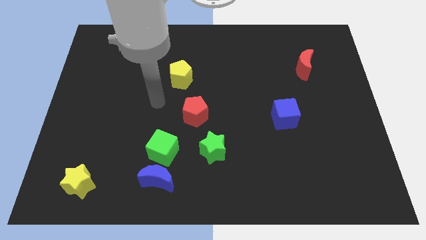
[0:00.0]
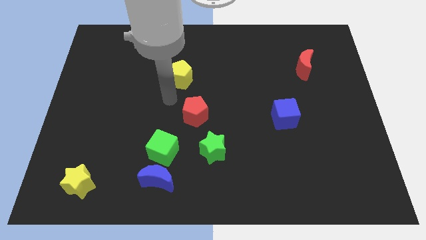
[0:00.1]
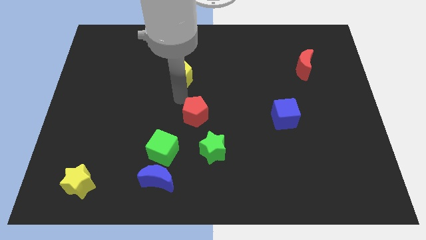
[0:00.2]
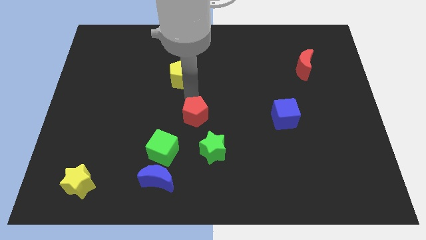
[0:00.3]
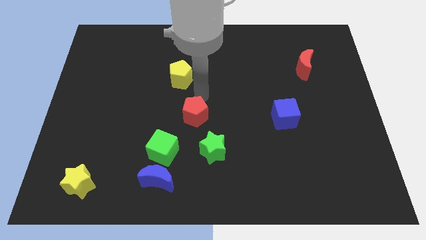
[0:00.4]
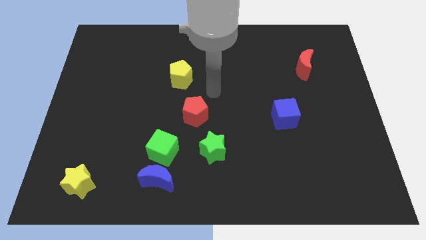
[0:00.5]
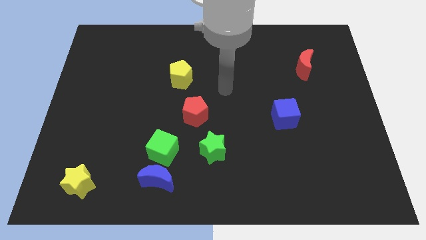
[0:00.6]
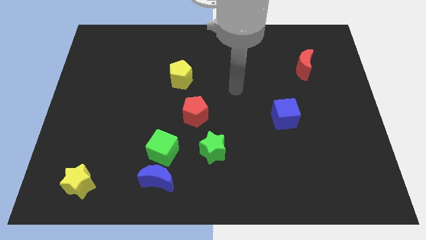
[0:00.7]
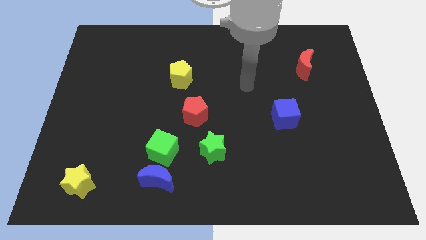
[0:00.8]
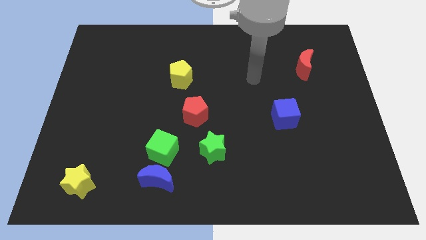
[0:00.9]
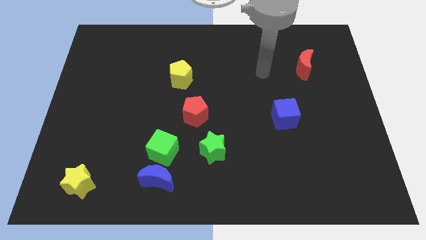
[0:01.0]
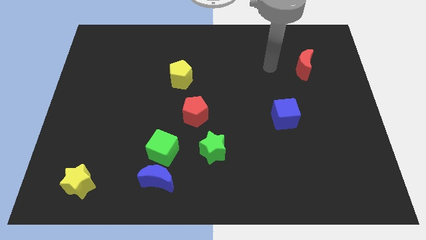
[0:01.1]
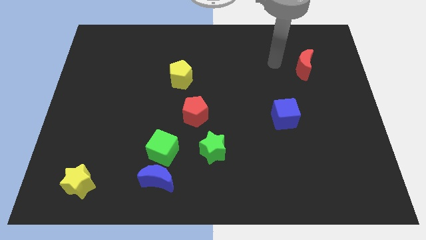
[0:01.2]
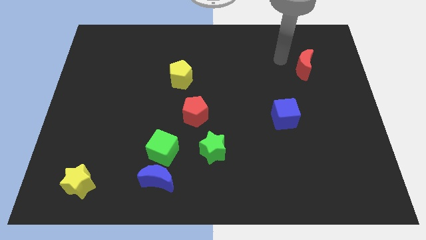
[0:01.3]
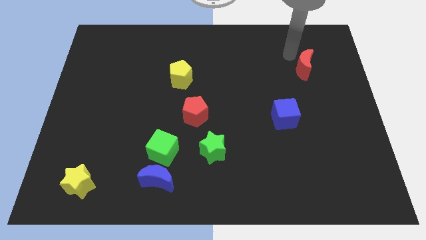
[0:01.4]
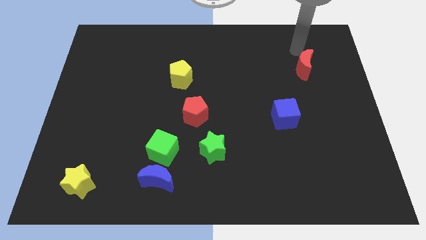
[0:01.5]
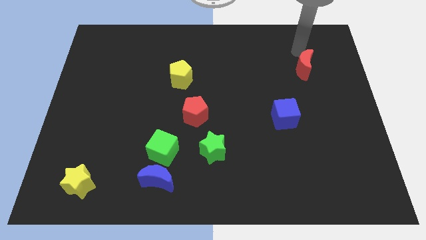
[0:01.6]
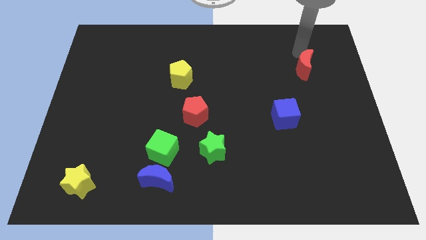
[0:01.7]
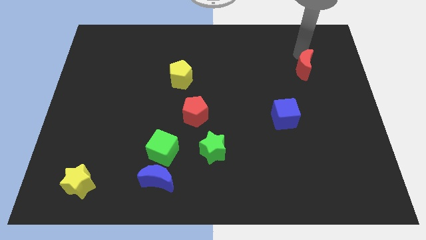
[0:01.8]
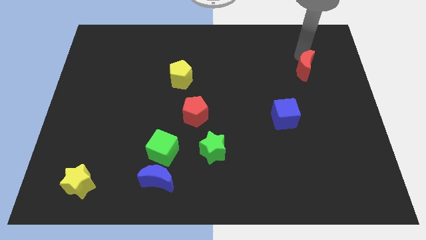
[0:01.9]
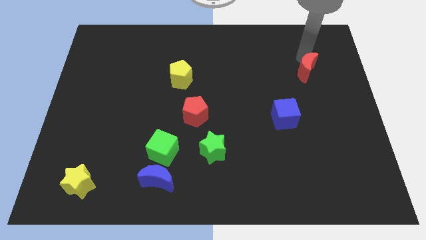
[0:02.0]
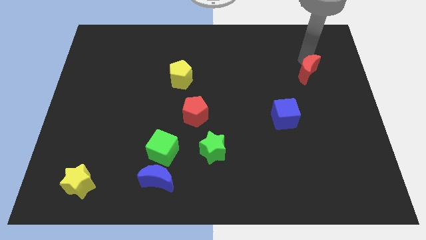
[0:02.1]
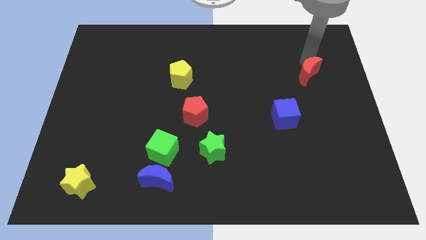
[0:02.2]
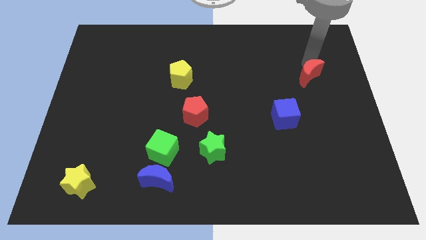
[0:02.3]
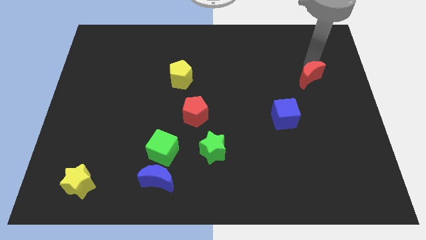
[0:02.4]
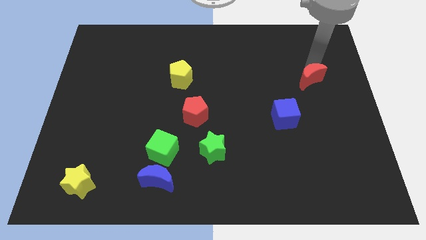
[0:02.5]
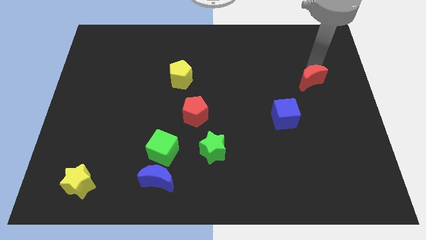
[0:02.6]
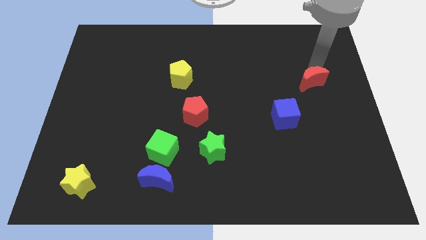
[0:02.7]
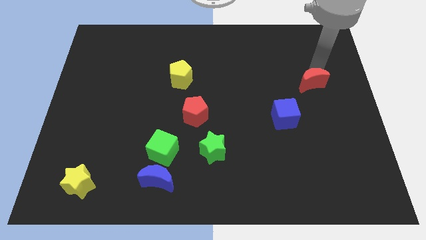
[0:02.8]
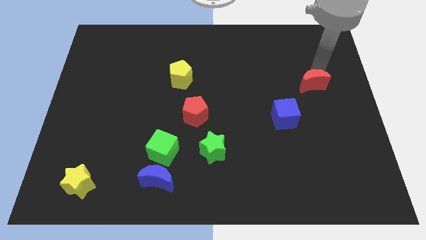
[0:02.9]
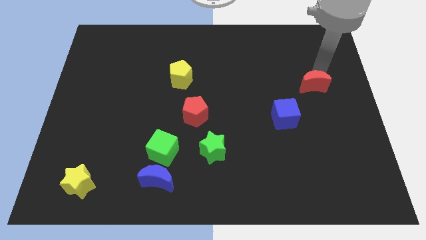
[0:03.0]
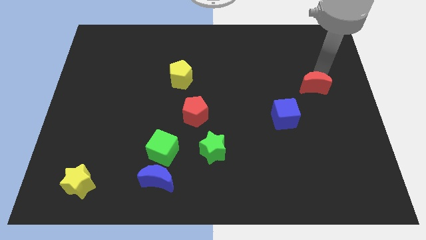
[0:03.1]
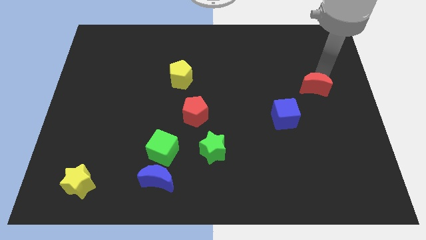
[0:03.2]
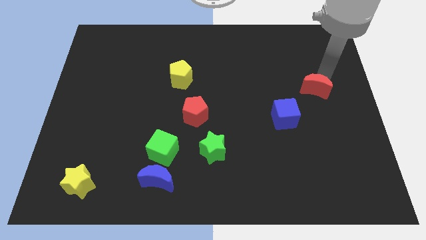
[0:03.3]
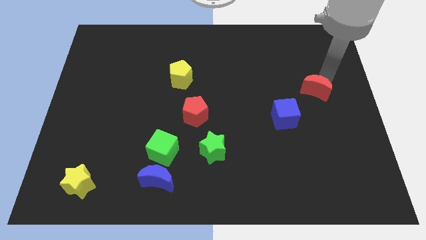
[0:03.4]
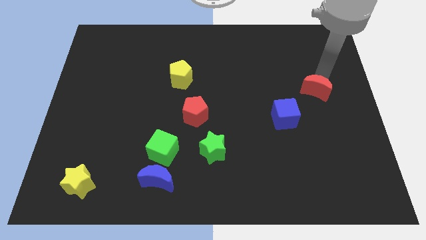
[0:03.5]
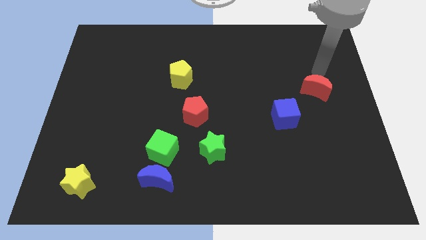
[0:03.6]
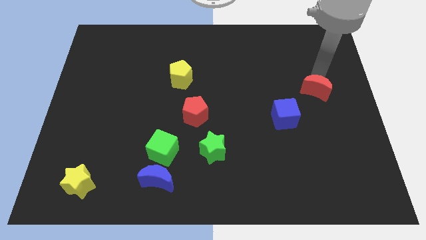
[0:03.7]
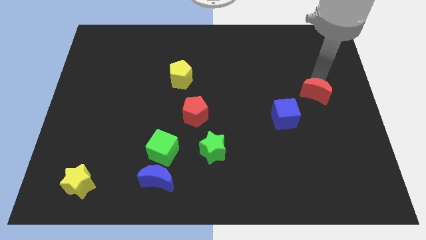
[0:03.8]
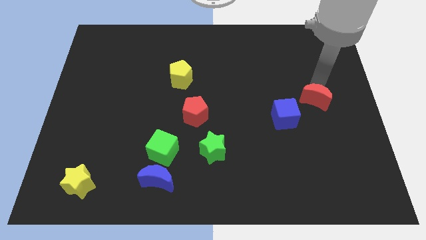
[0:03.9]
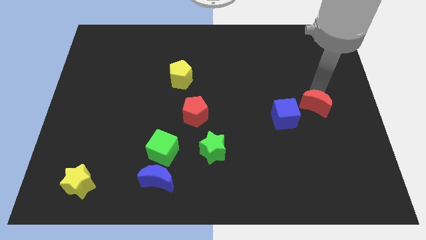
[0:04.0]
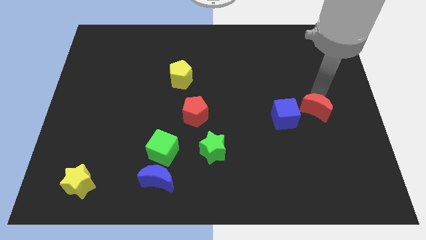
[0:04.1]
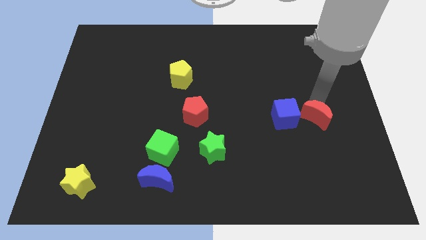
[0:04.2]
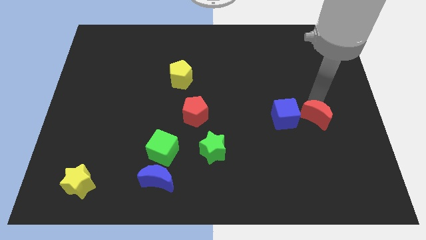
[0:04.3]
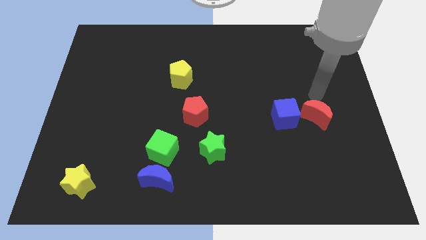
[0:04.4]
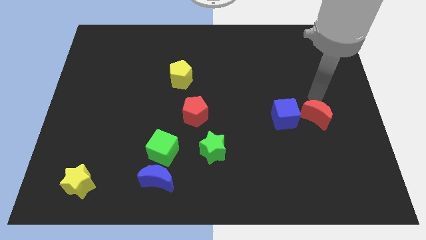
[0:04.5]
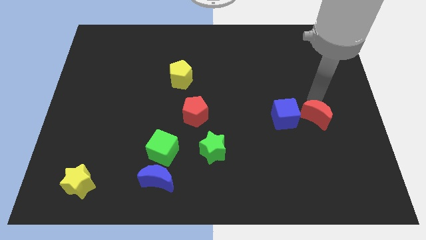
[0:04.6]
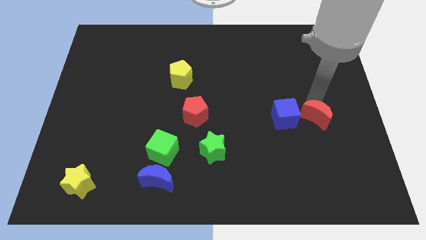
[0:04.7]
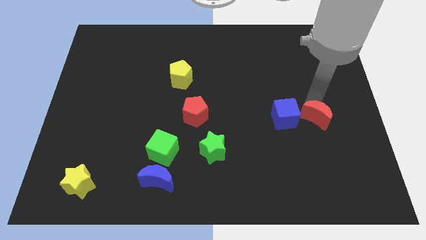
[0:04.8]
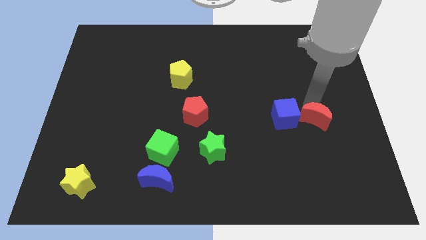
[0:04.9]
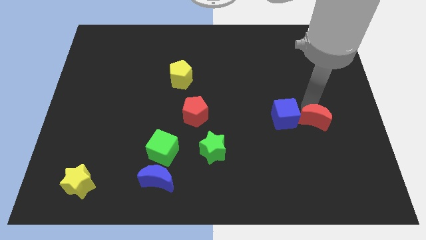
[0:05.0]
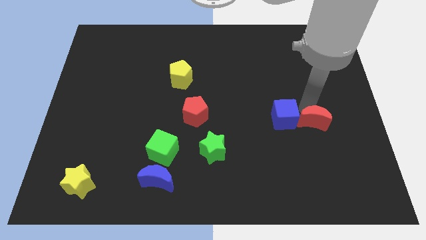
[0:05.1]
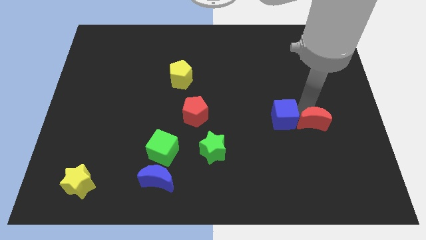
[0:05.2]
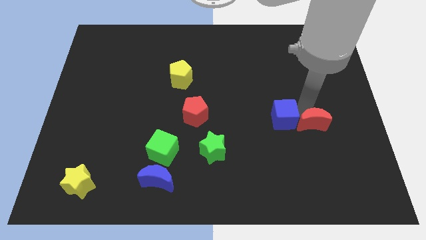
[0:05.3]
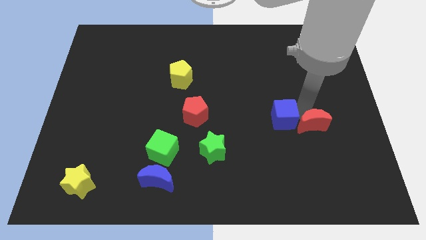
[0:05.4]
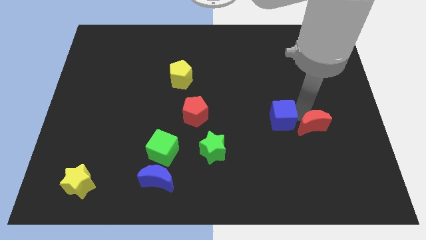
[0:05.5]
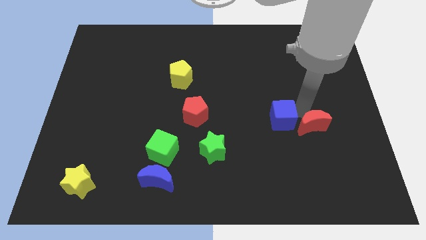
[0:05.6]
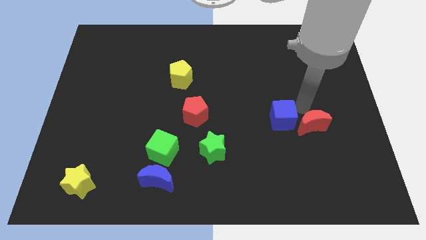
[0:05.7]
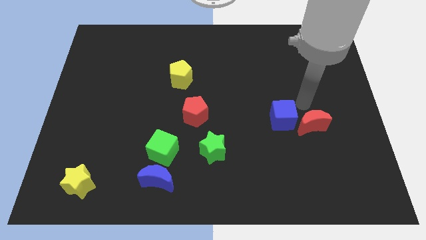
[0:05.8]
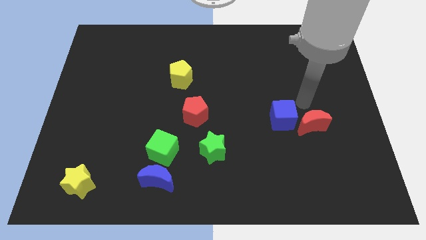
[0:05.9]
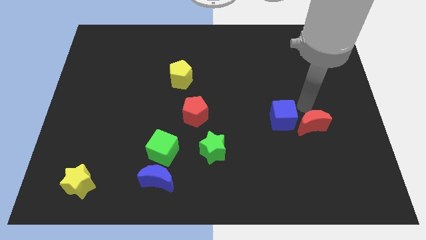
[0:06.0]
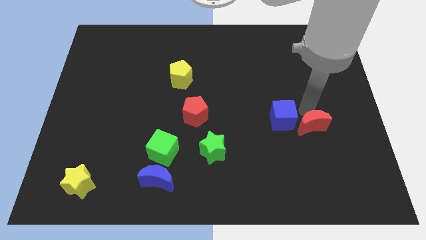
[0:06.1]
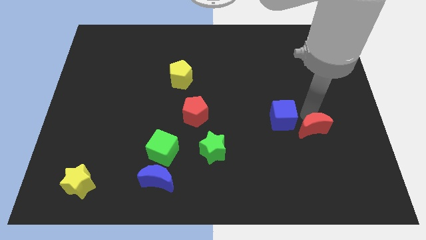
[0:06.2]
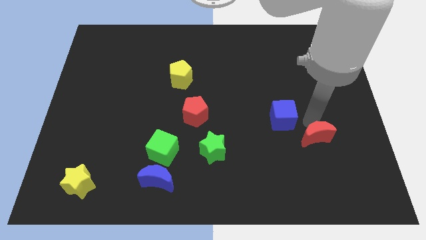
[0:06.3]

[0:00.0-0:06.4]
push the red moon downwards

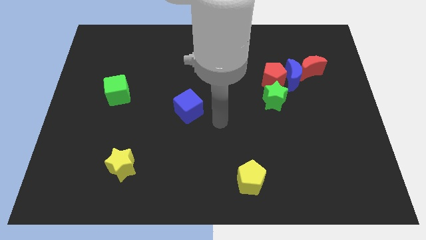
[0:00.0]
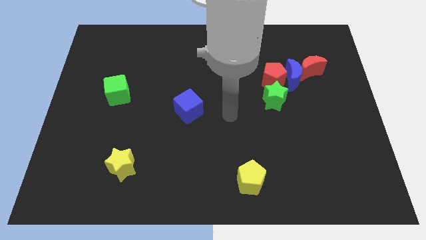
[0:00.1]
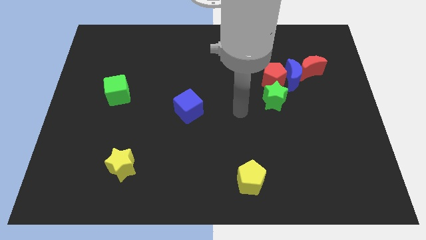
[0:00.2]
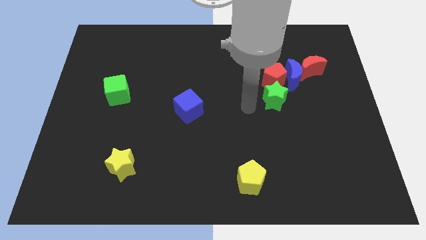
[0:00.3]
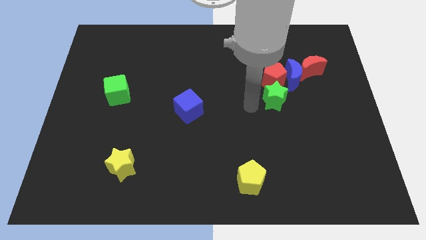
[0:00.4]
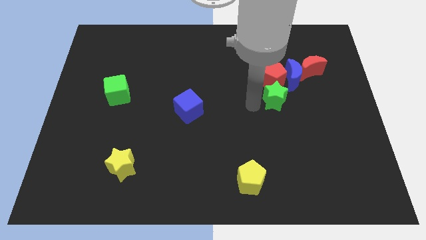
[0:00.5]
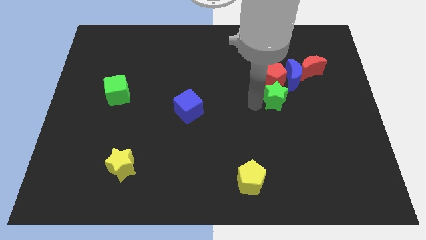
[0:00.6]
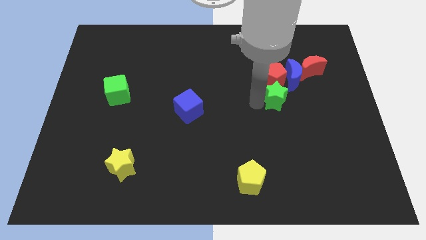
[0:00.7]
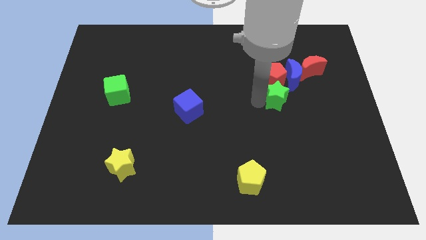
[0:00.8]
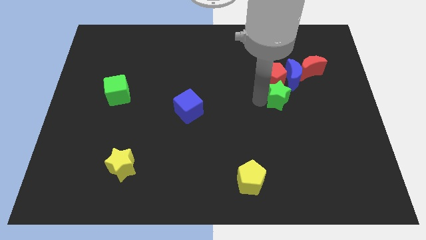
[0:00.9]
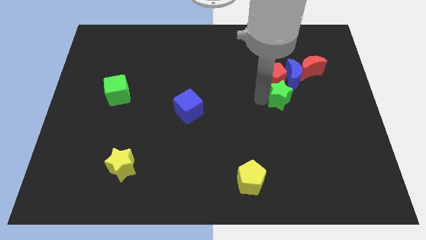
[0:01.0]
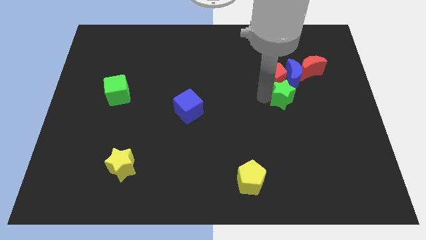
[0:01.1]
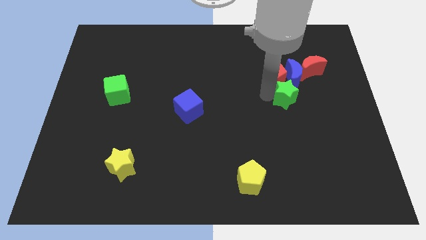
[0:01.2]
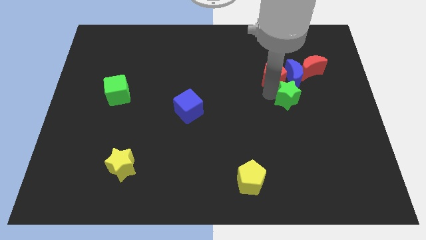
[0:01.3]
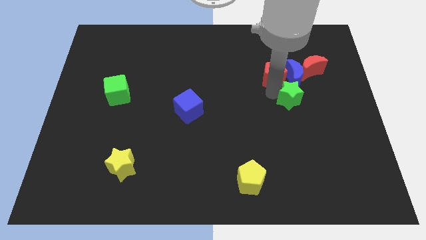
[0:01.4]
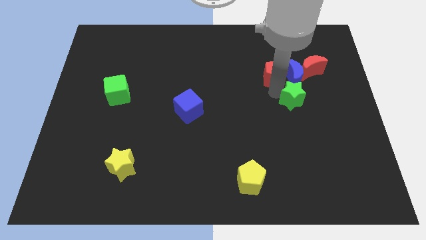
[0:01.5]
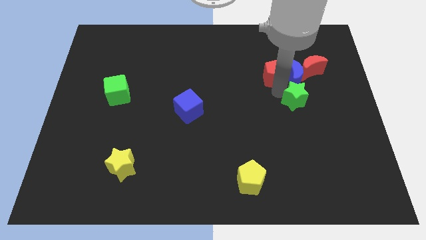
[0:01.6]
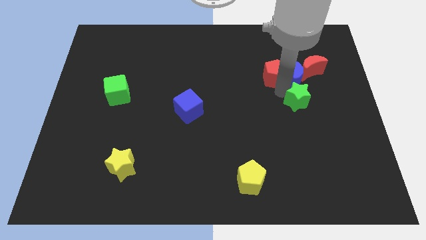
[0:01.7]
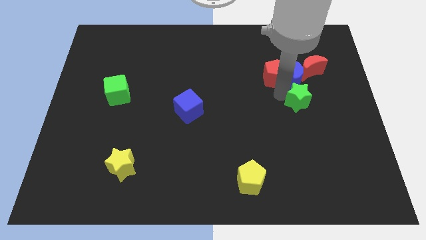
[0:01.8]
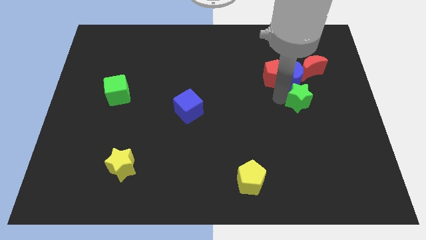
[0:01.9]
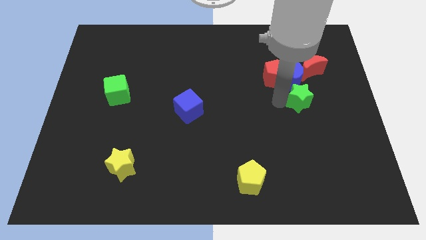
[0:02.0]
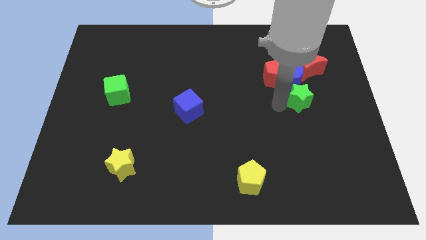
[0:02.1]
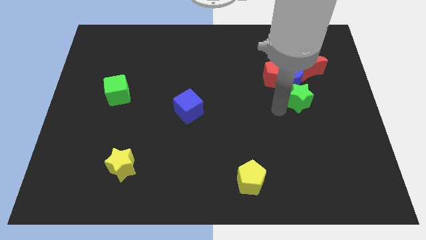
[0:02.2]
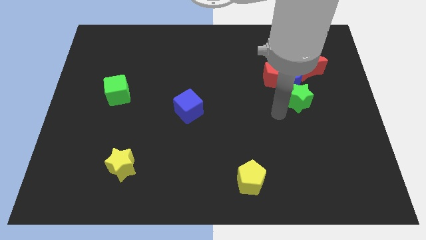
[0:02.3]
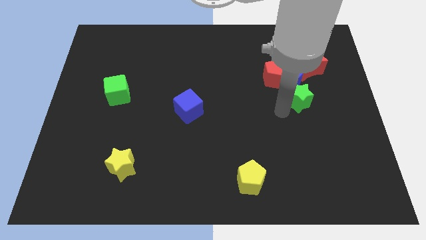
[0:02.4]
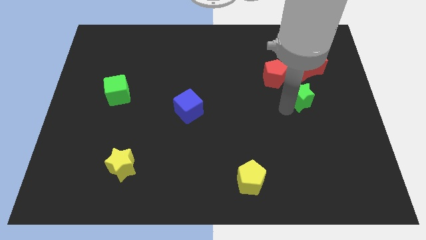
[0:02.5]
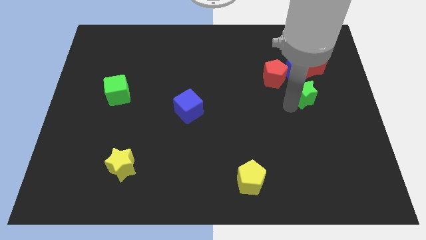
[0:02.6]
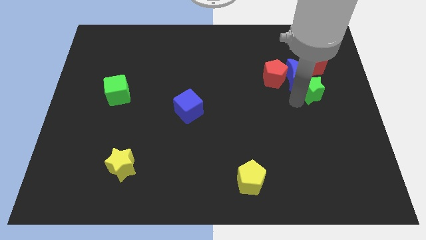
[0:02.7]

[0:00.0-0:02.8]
push the green star upwards and to the right a little
